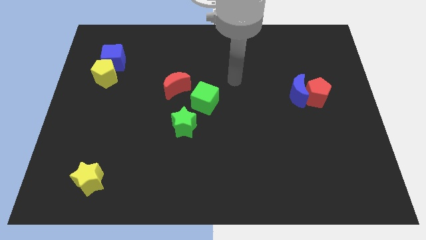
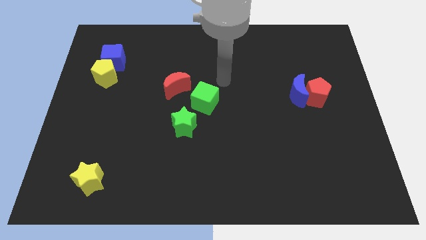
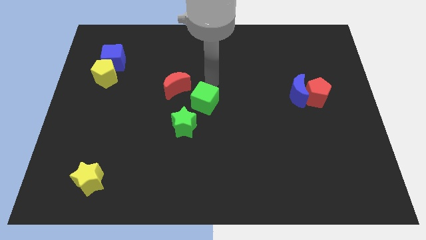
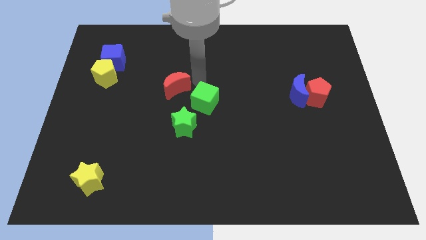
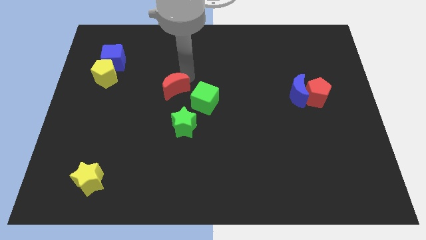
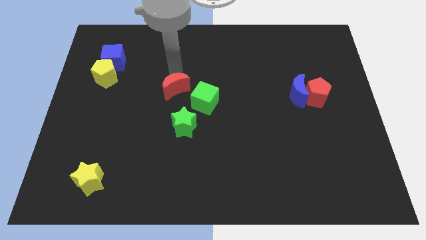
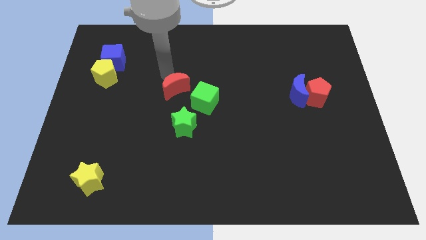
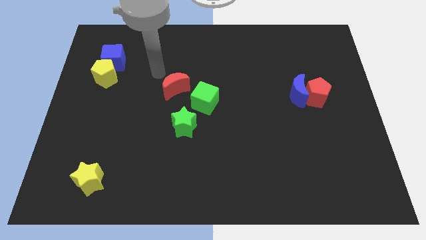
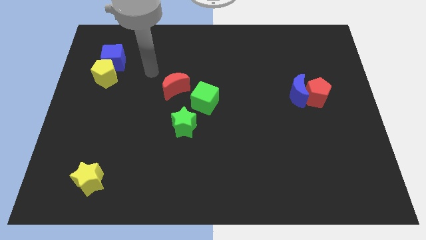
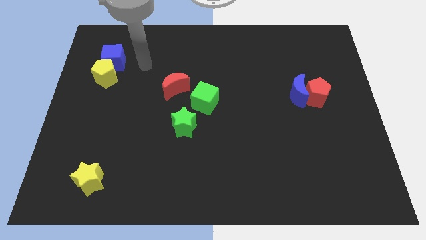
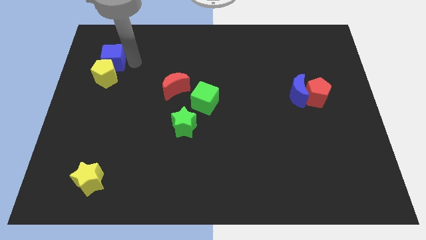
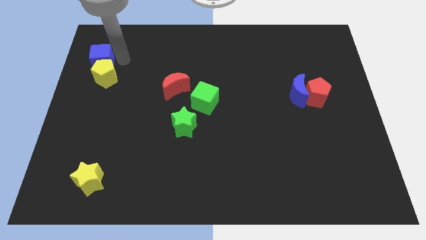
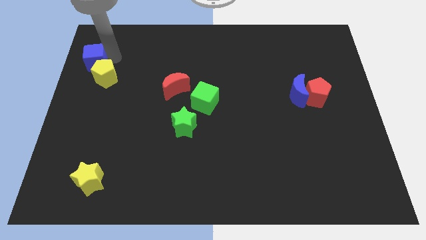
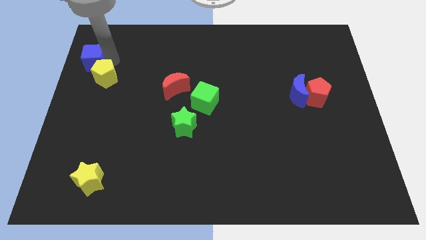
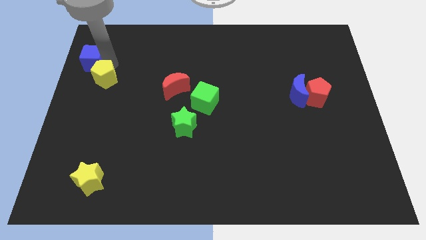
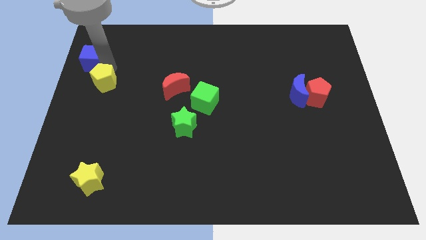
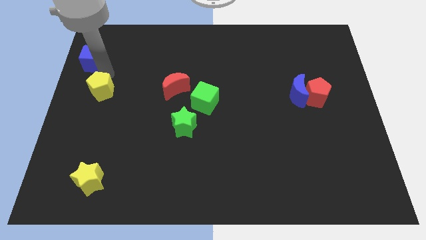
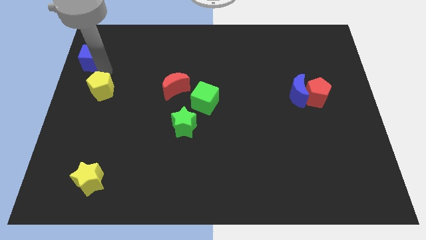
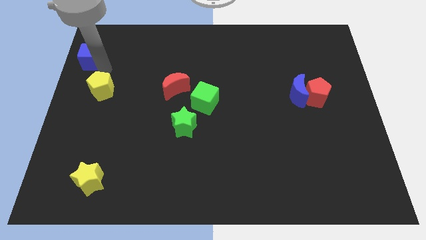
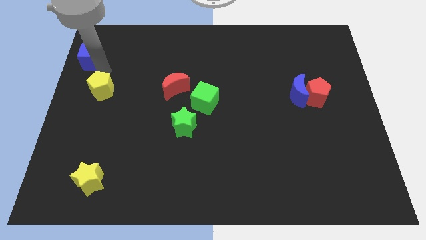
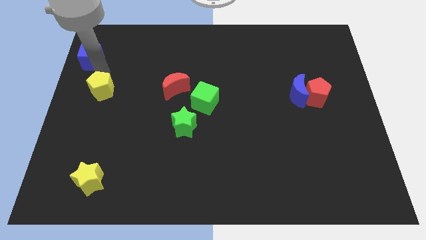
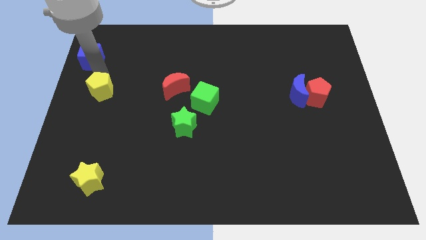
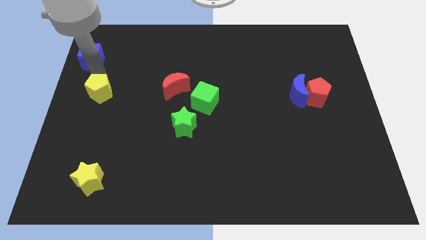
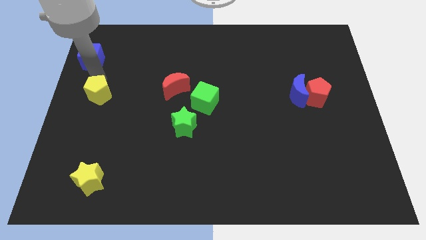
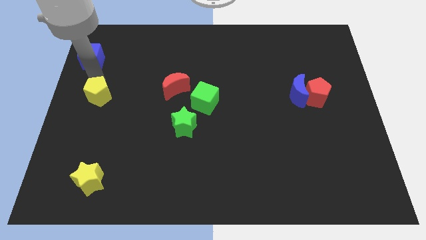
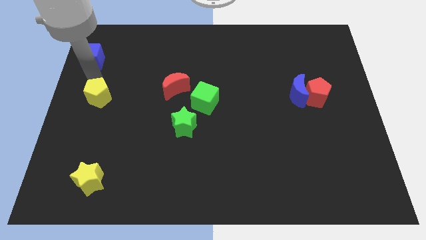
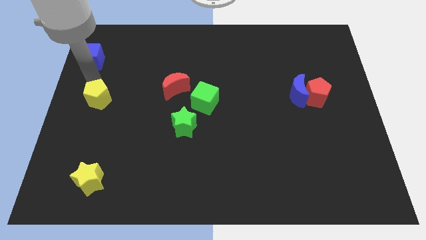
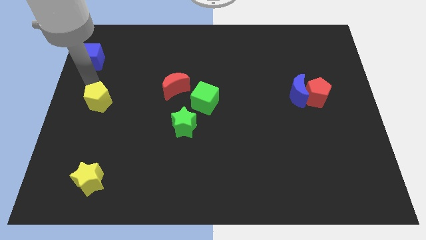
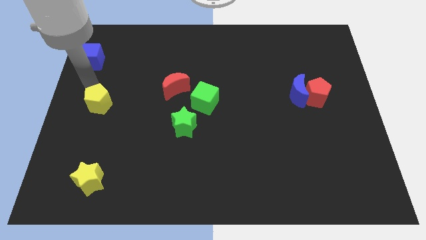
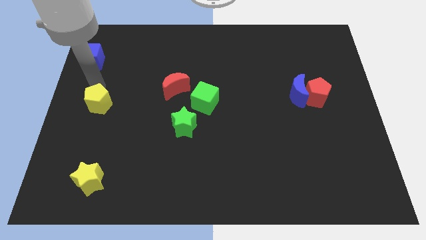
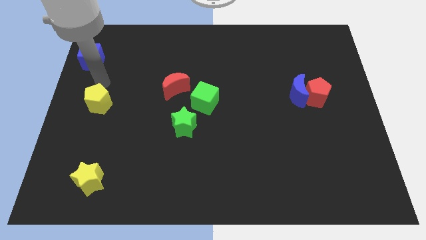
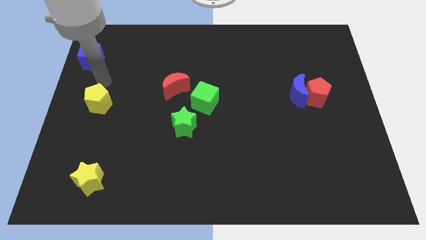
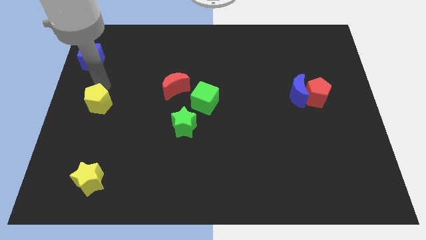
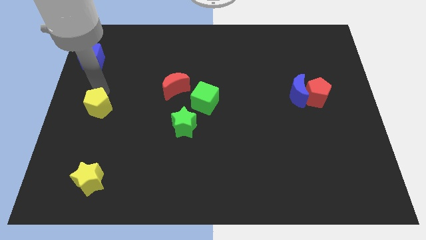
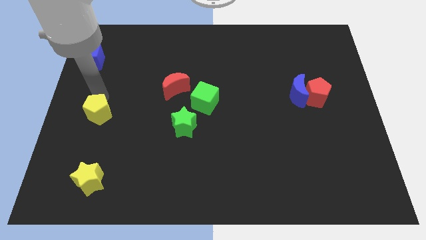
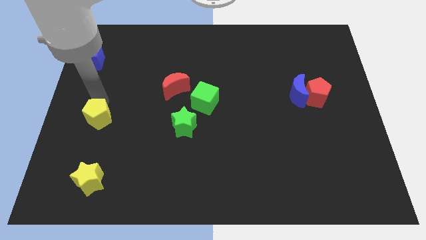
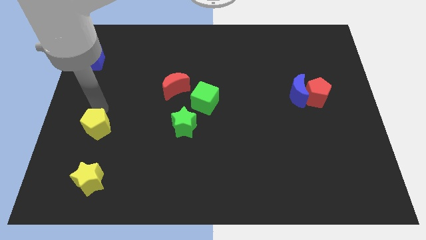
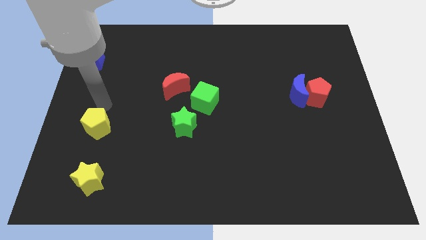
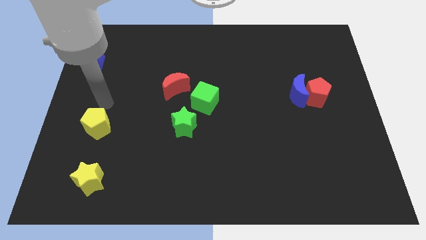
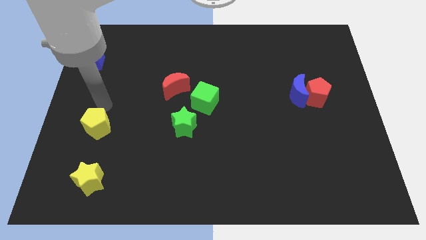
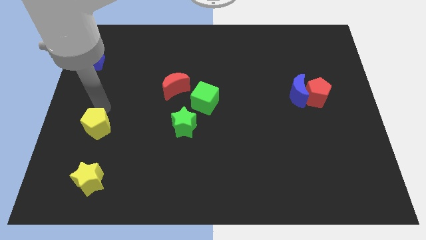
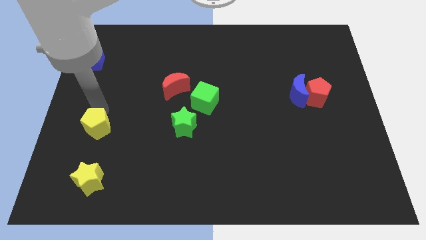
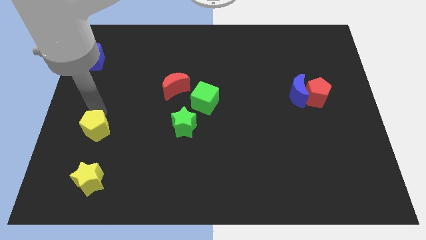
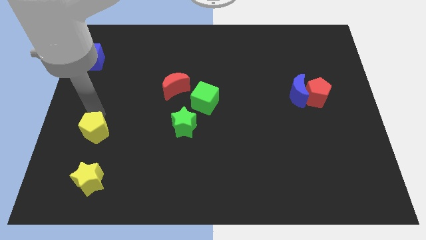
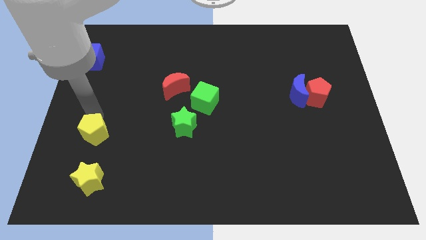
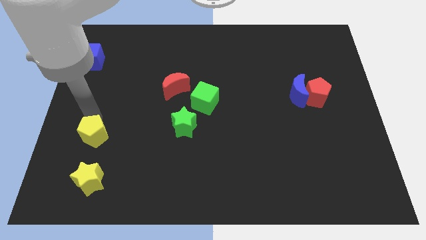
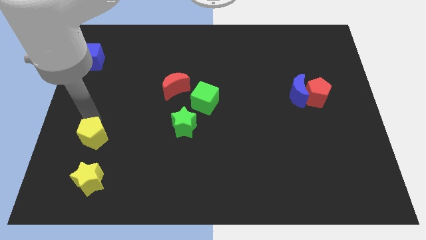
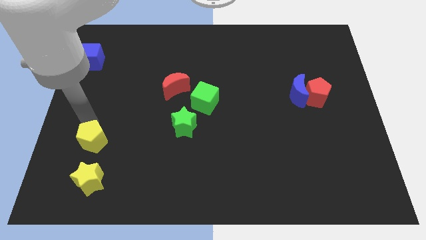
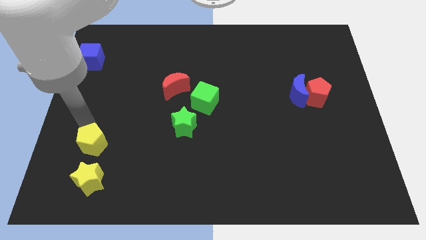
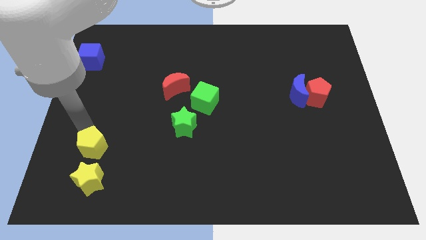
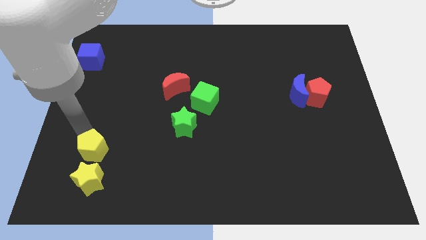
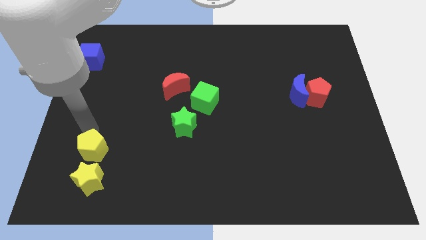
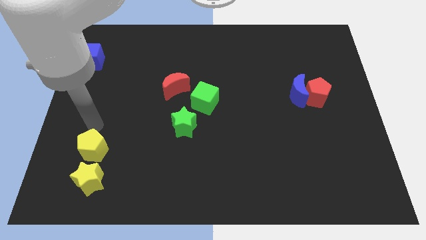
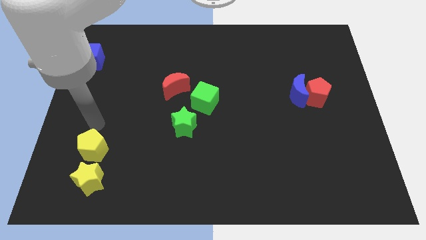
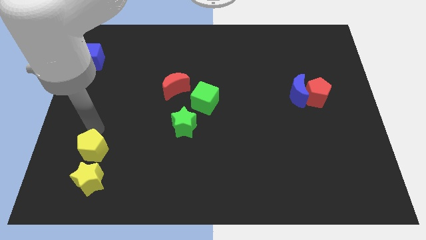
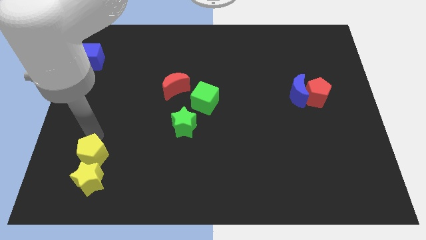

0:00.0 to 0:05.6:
slide the yellow pentagon to the yellow star

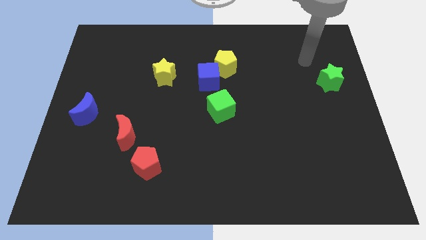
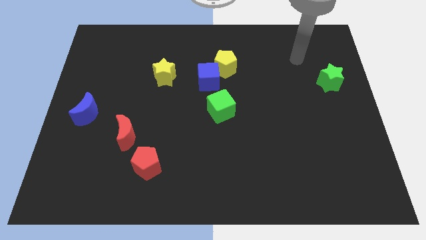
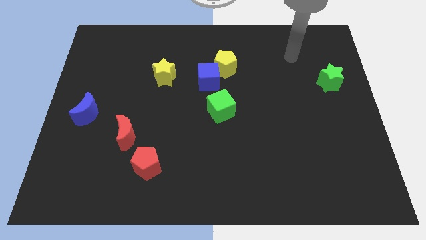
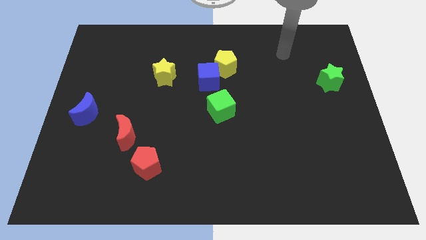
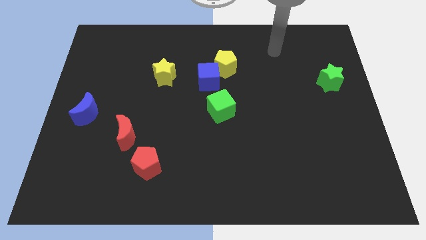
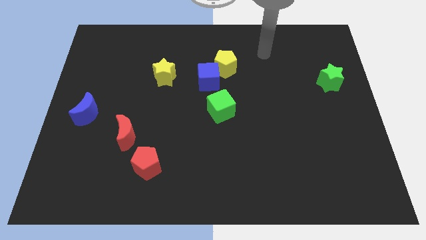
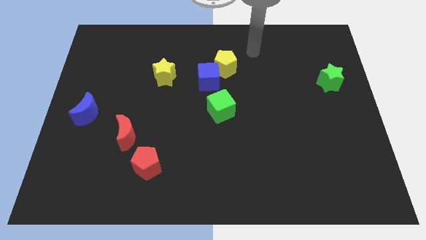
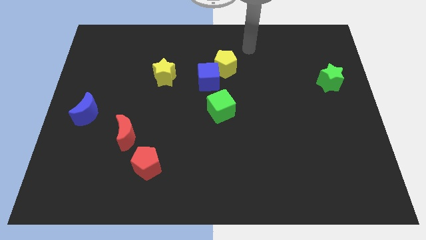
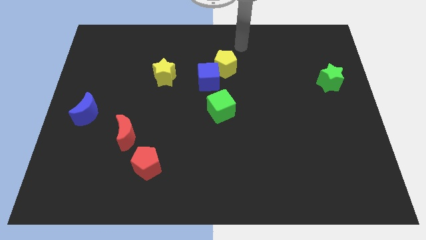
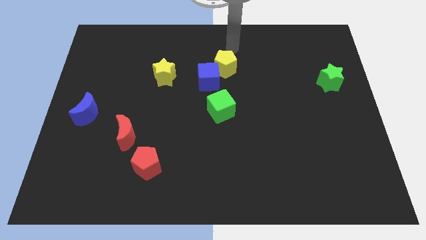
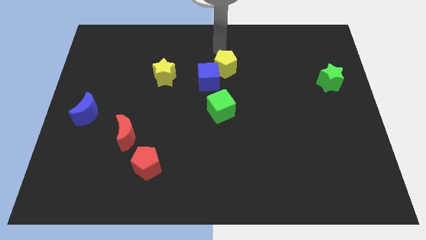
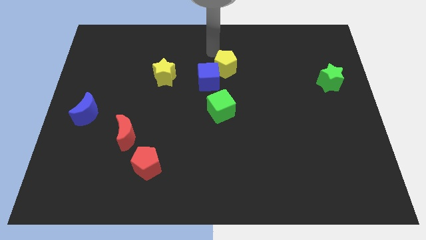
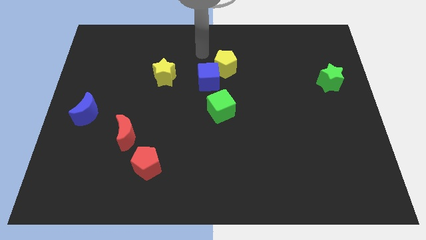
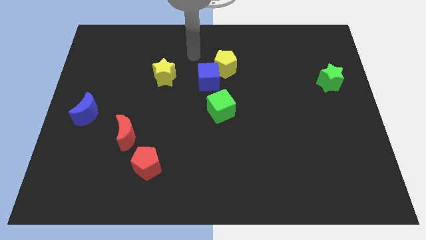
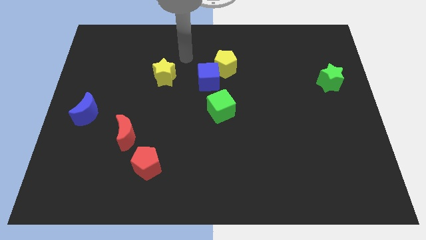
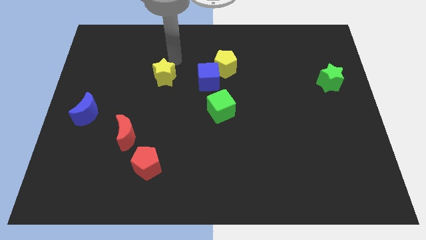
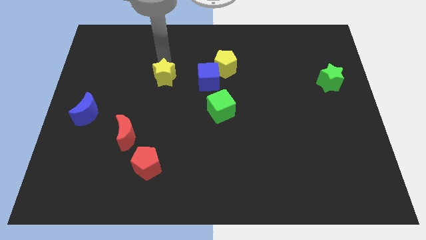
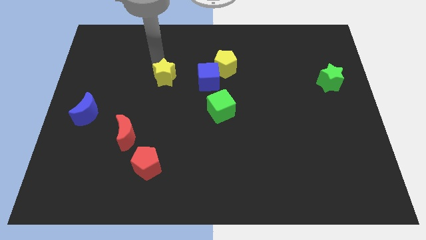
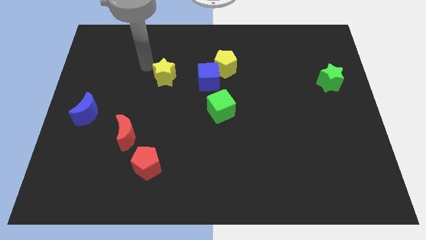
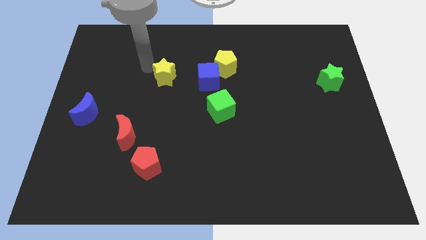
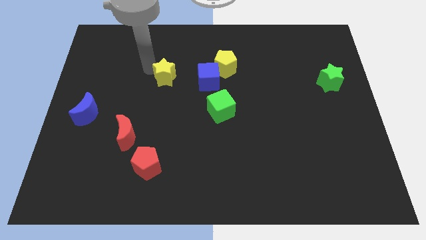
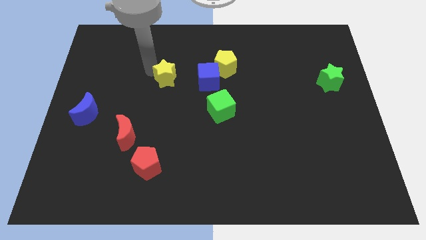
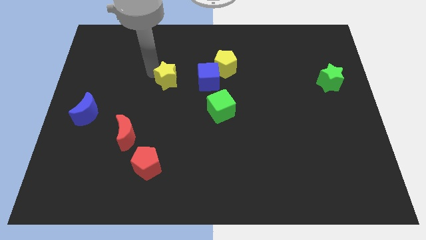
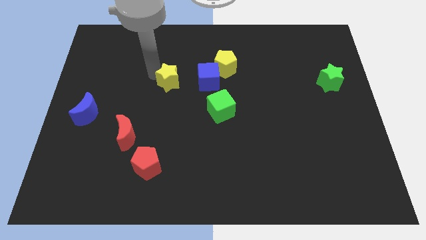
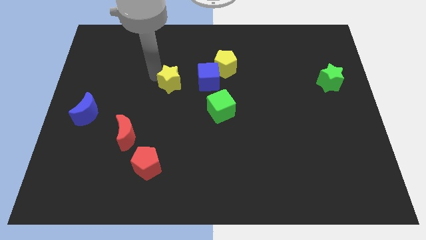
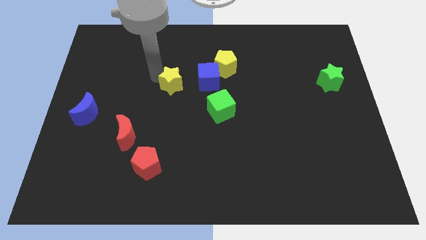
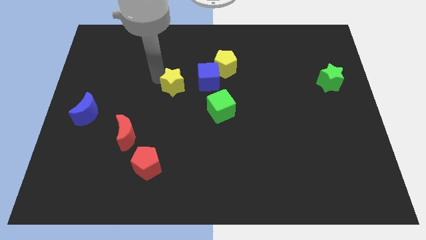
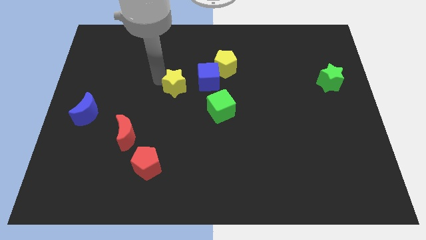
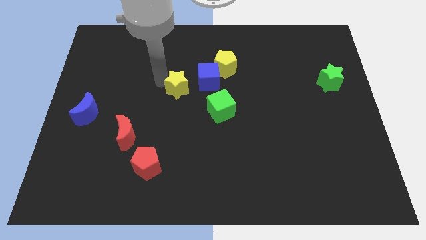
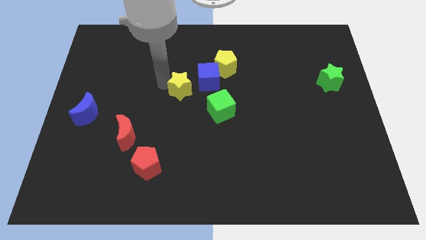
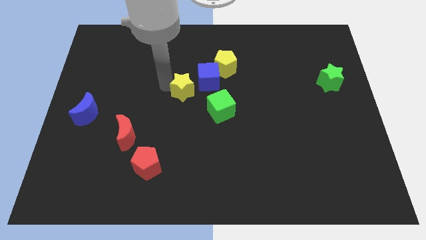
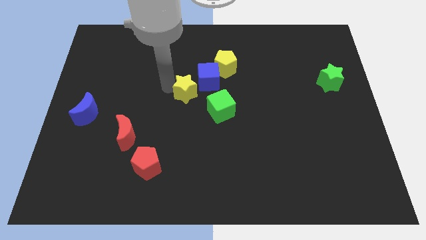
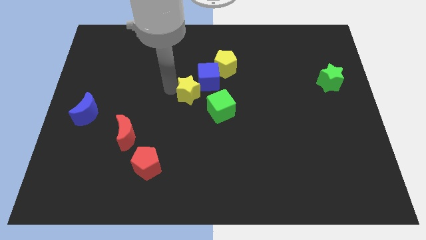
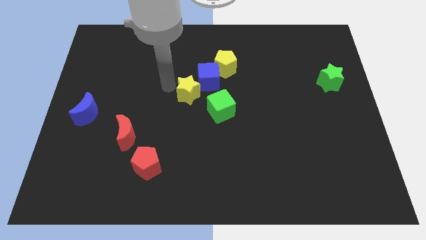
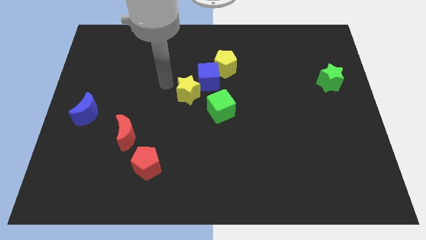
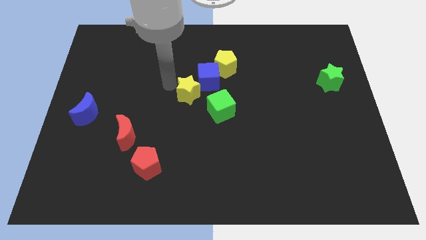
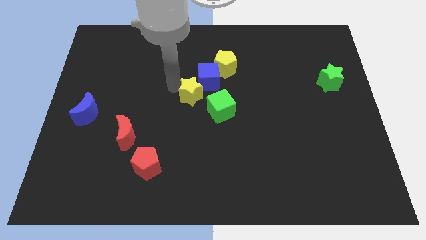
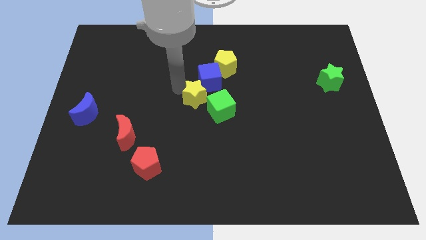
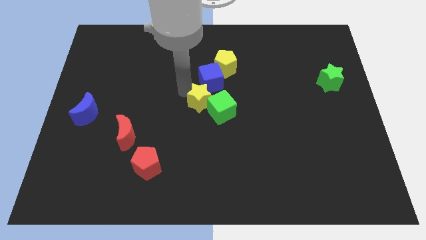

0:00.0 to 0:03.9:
push the yellow star to the green cube
